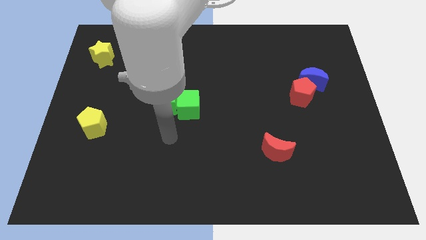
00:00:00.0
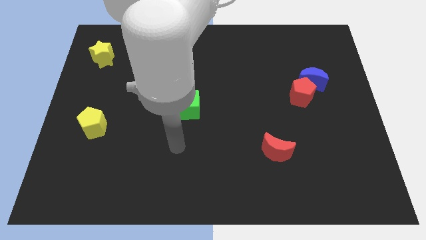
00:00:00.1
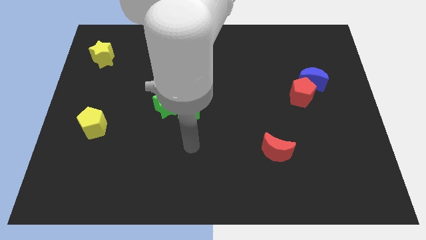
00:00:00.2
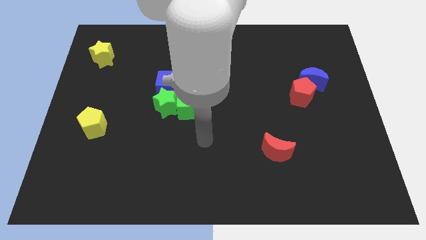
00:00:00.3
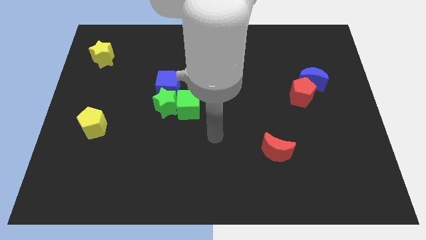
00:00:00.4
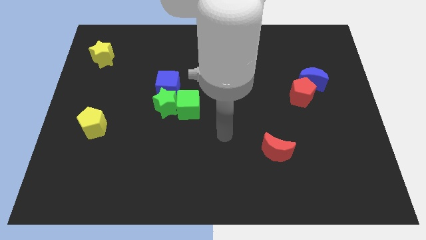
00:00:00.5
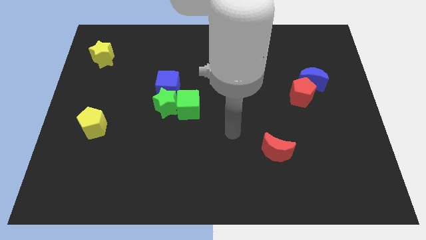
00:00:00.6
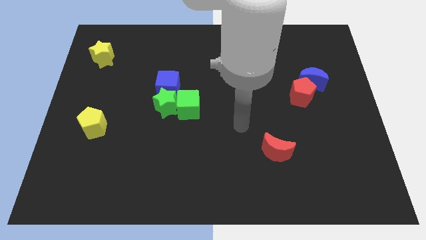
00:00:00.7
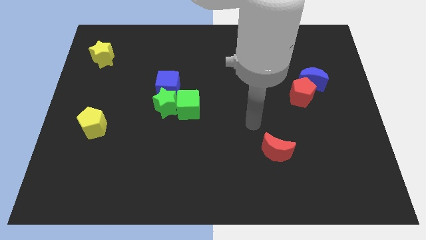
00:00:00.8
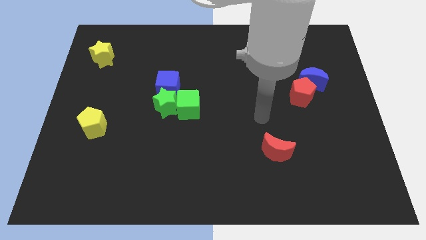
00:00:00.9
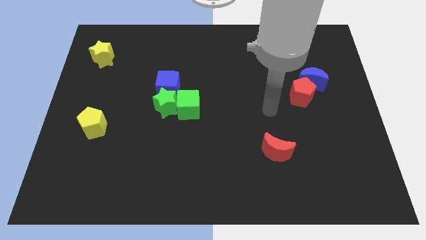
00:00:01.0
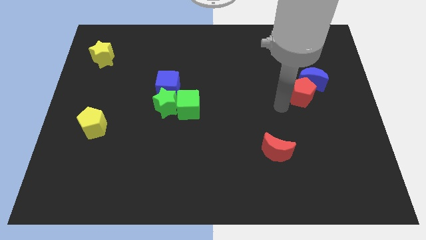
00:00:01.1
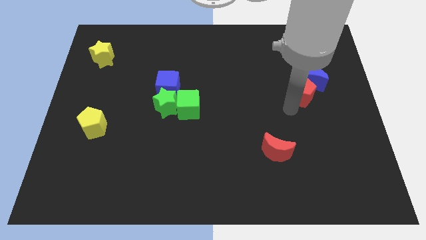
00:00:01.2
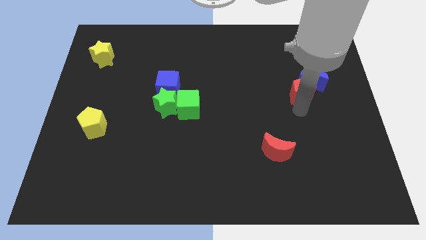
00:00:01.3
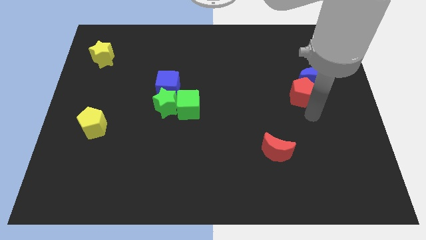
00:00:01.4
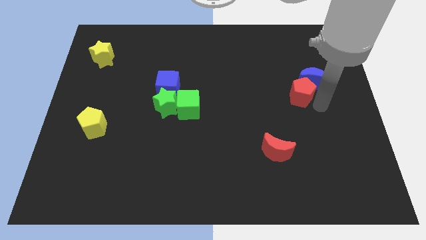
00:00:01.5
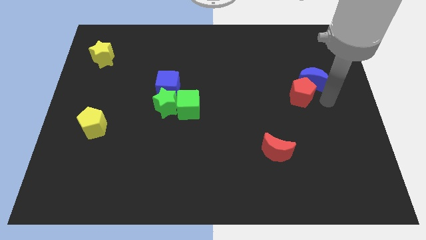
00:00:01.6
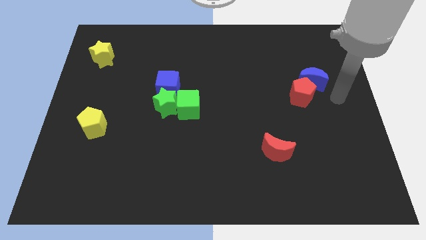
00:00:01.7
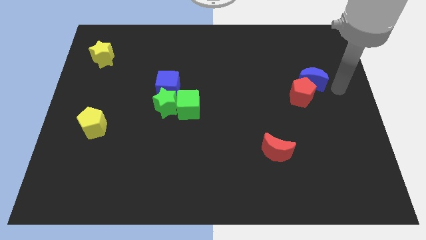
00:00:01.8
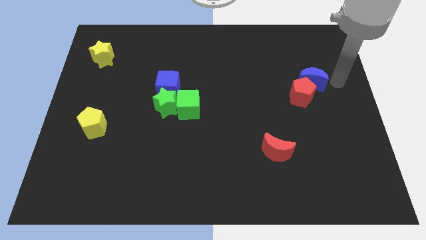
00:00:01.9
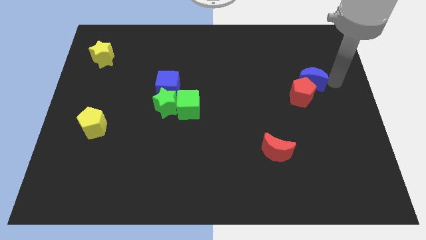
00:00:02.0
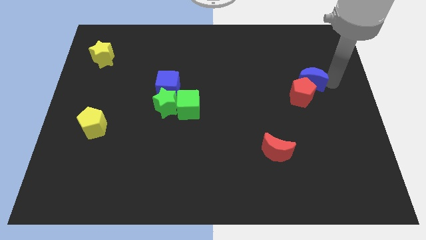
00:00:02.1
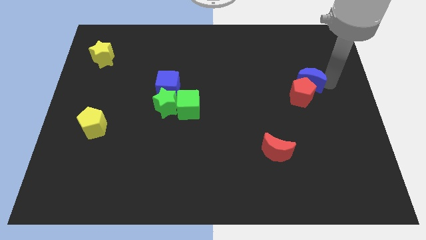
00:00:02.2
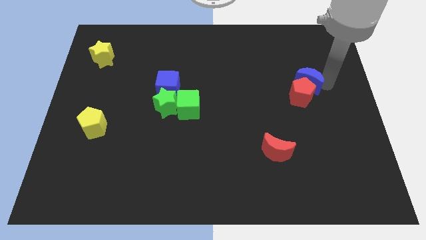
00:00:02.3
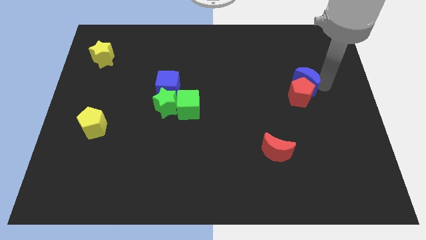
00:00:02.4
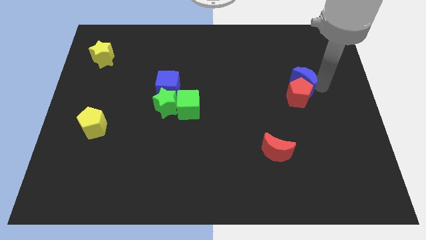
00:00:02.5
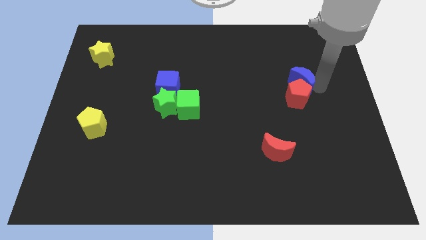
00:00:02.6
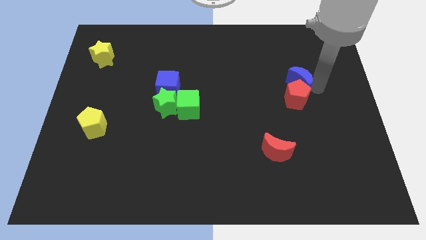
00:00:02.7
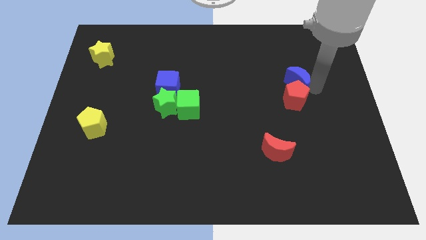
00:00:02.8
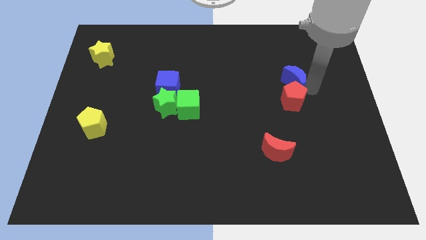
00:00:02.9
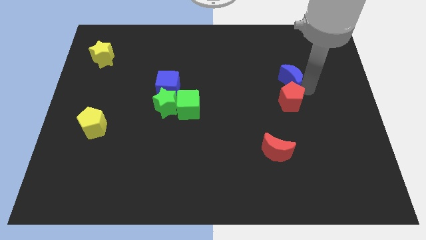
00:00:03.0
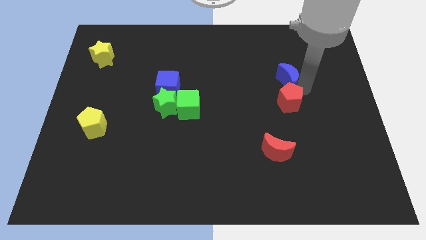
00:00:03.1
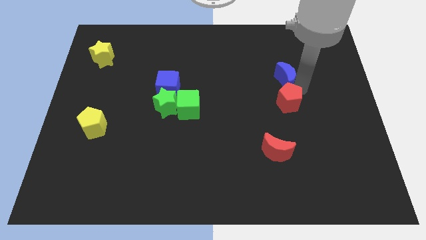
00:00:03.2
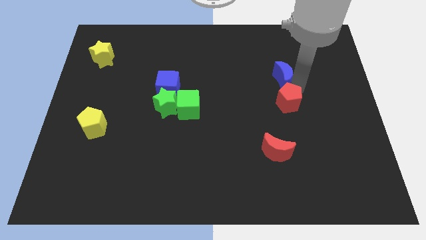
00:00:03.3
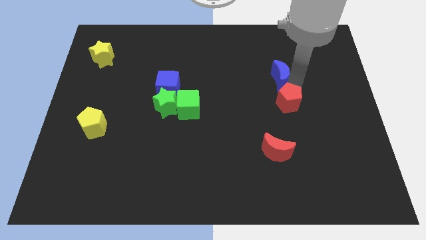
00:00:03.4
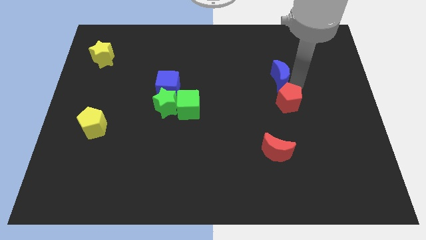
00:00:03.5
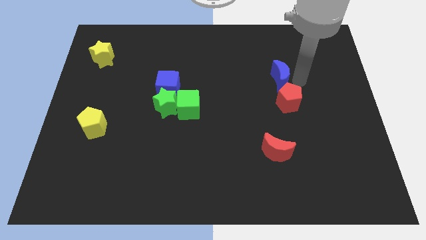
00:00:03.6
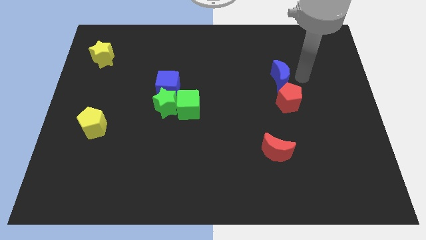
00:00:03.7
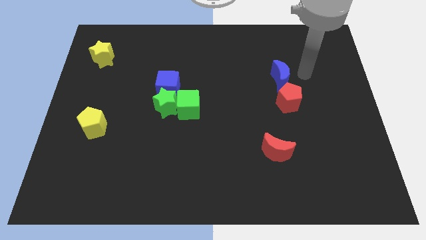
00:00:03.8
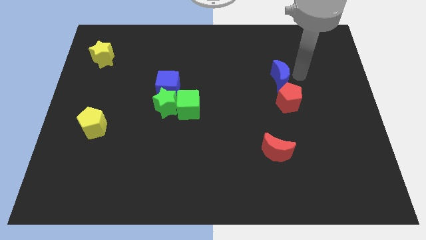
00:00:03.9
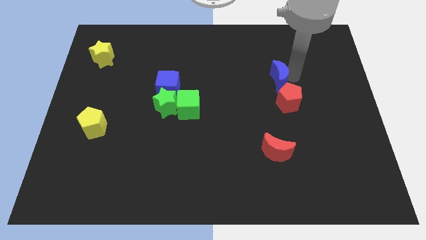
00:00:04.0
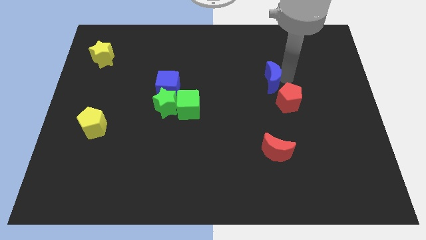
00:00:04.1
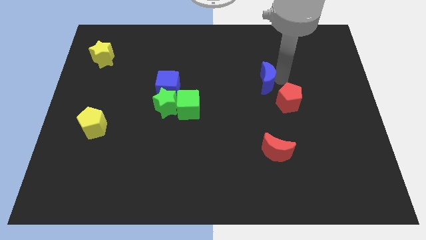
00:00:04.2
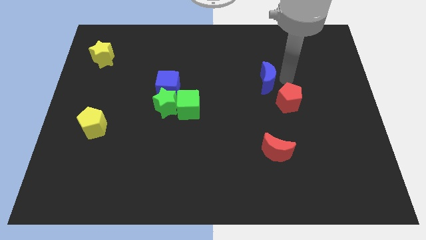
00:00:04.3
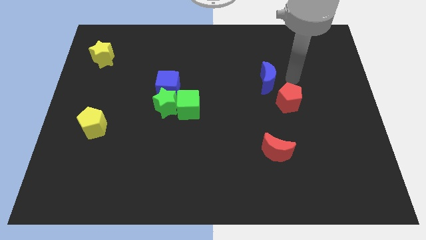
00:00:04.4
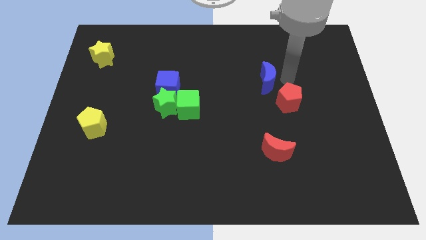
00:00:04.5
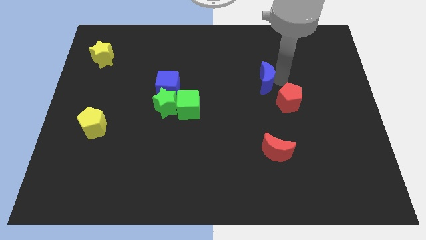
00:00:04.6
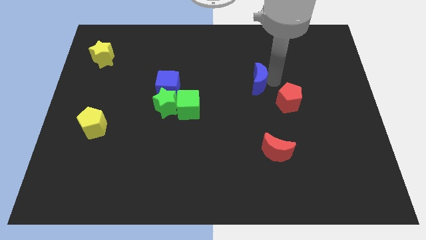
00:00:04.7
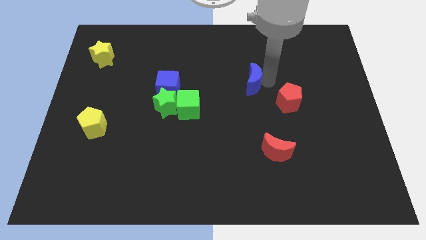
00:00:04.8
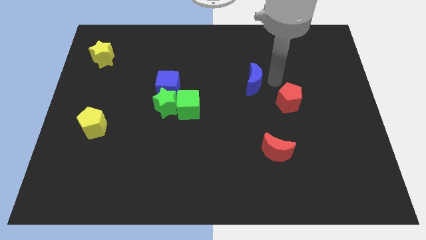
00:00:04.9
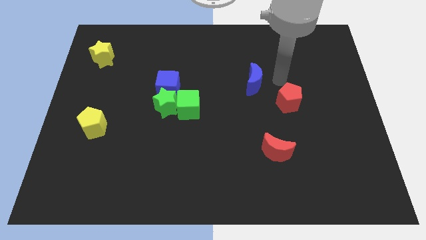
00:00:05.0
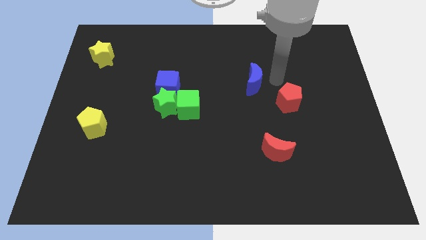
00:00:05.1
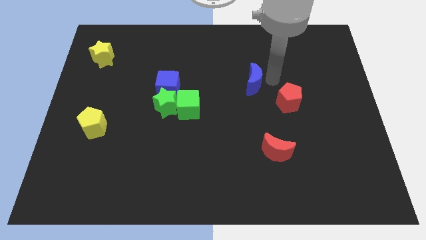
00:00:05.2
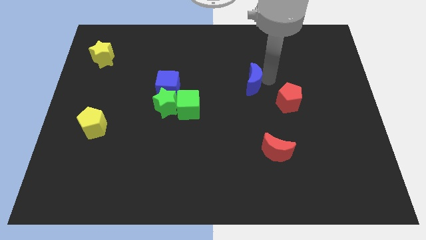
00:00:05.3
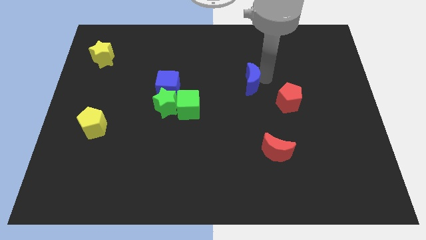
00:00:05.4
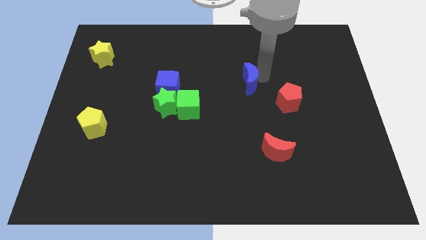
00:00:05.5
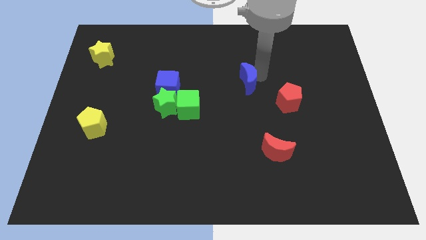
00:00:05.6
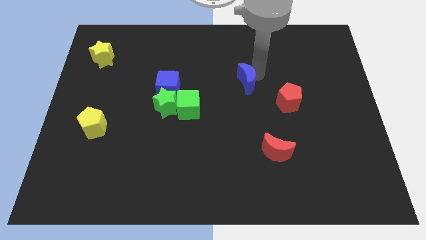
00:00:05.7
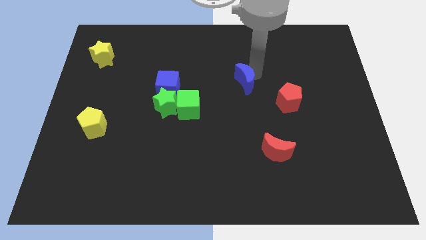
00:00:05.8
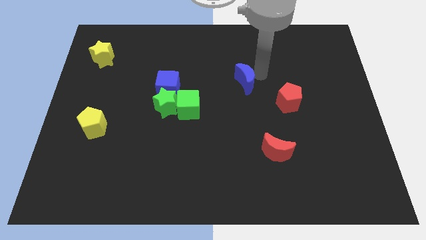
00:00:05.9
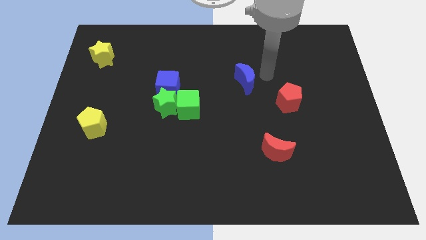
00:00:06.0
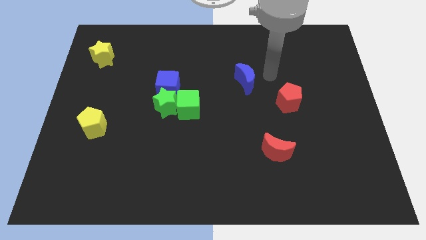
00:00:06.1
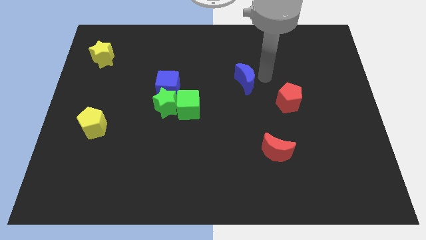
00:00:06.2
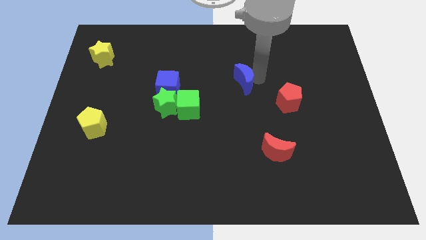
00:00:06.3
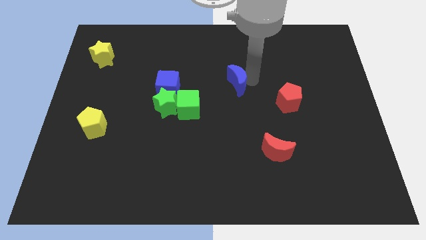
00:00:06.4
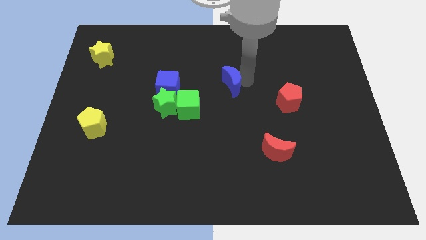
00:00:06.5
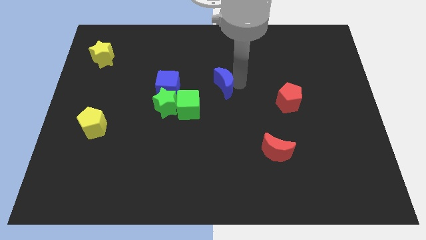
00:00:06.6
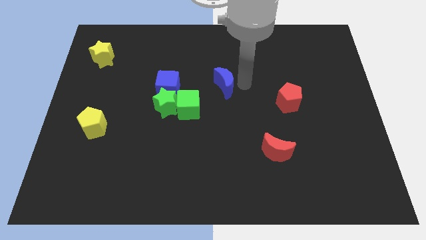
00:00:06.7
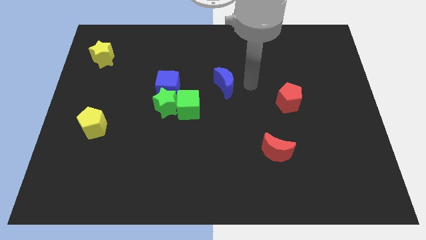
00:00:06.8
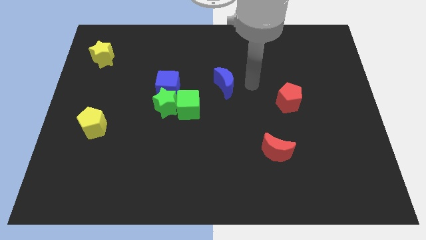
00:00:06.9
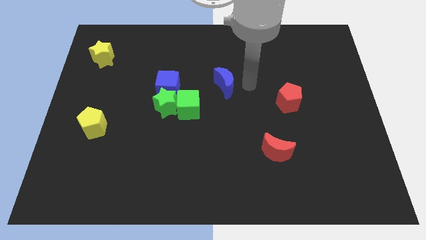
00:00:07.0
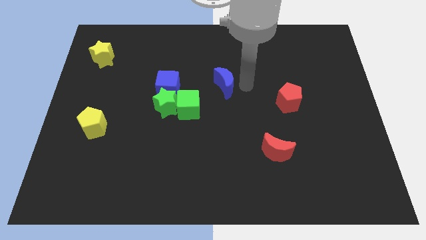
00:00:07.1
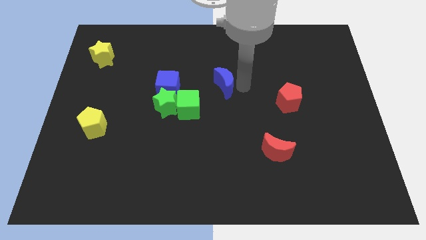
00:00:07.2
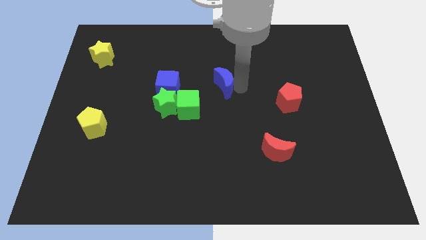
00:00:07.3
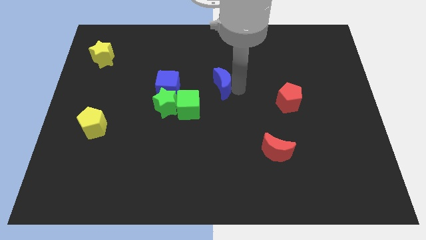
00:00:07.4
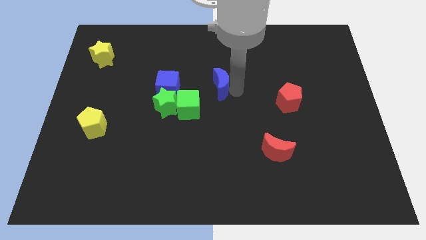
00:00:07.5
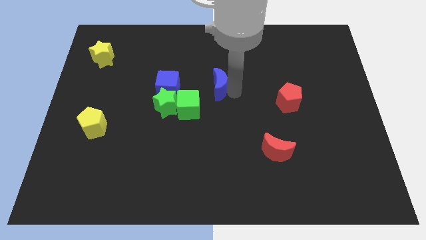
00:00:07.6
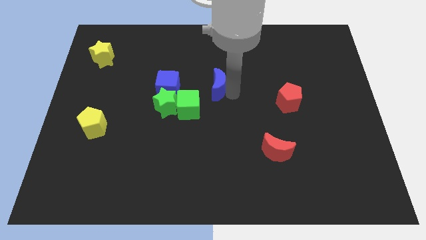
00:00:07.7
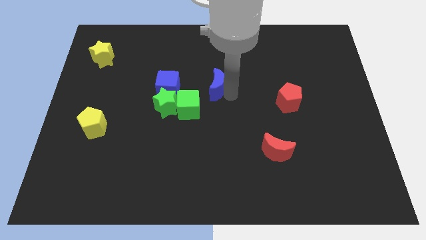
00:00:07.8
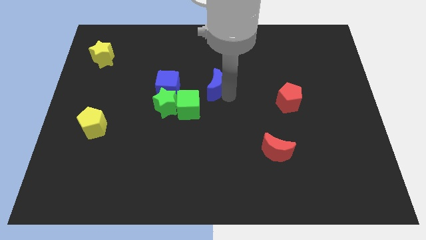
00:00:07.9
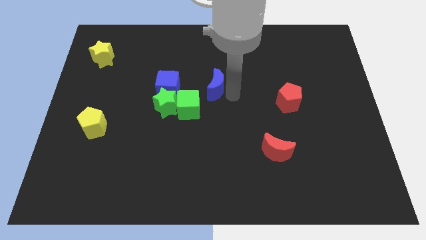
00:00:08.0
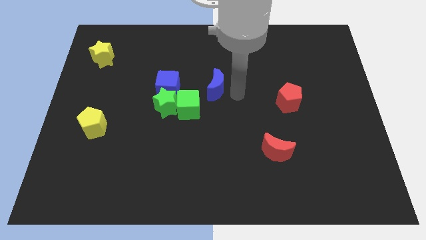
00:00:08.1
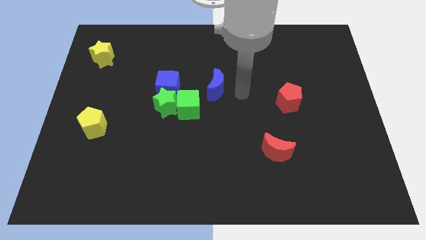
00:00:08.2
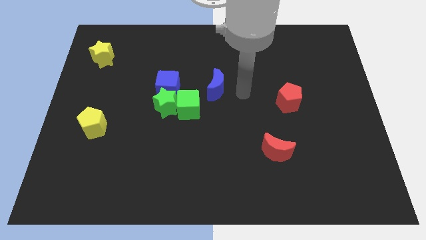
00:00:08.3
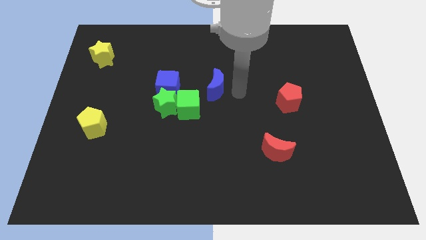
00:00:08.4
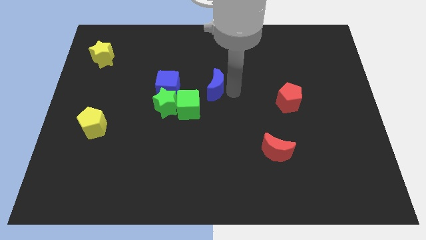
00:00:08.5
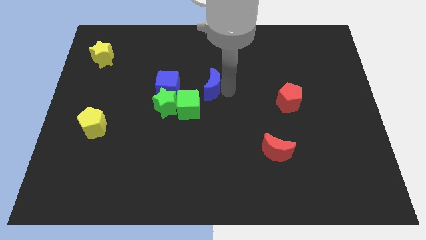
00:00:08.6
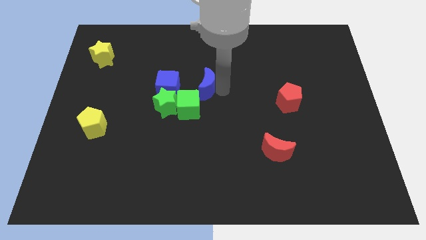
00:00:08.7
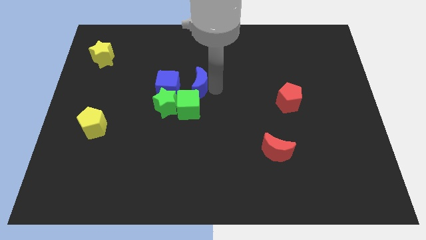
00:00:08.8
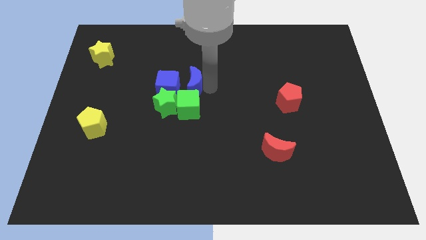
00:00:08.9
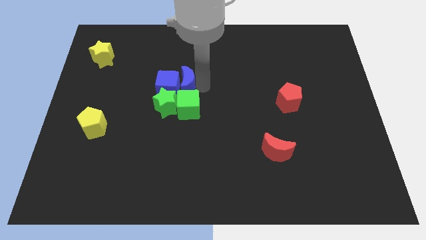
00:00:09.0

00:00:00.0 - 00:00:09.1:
move the blue moon towards the blue cube
